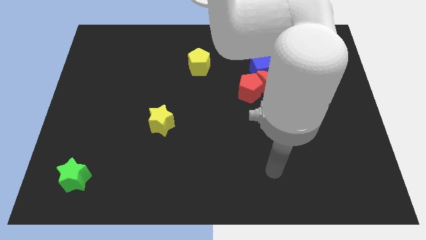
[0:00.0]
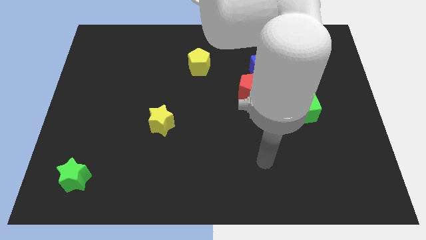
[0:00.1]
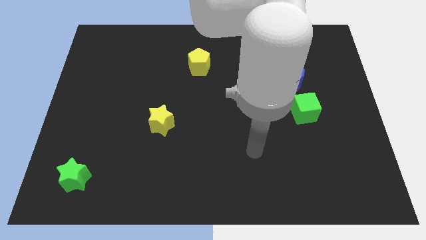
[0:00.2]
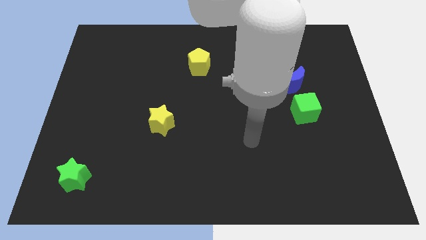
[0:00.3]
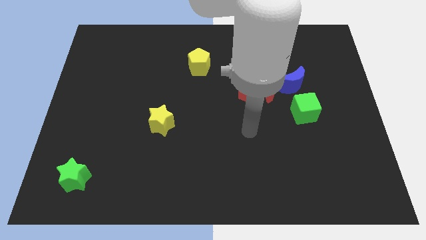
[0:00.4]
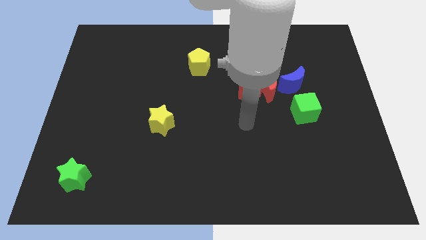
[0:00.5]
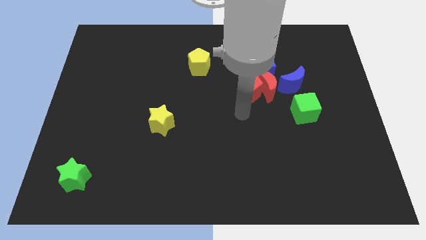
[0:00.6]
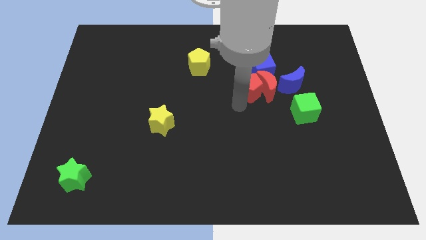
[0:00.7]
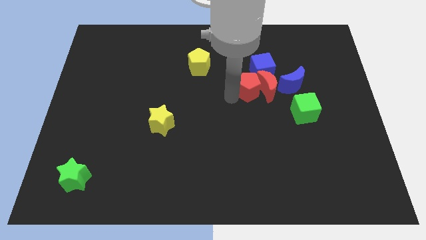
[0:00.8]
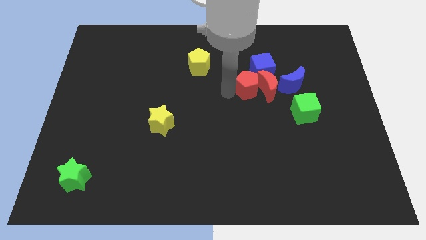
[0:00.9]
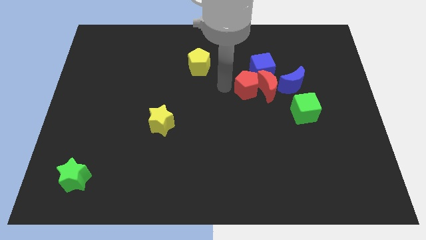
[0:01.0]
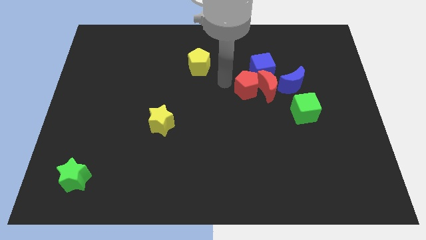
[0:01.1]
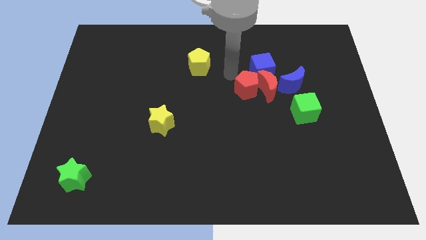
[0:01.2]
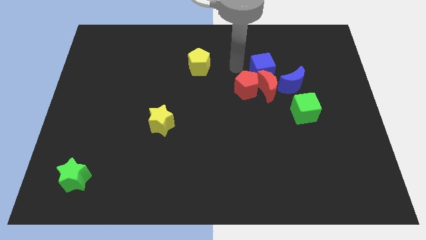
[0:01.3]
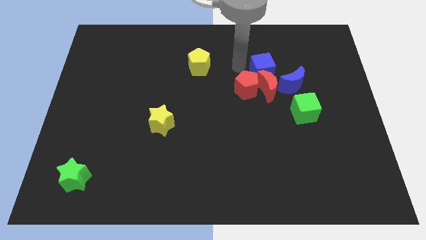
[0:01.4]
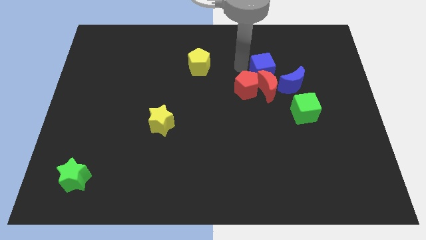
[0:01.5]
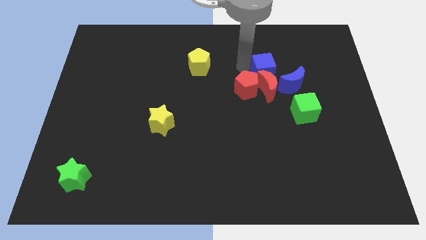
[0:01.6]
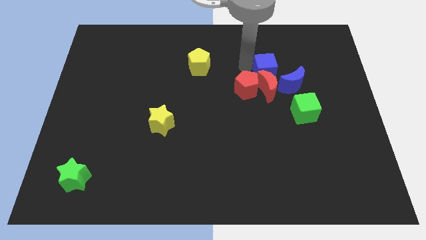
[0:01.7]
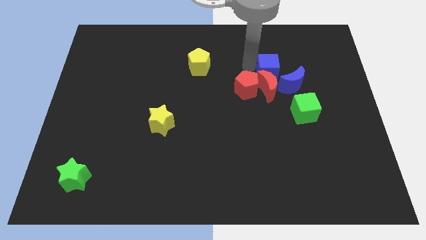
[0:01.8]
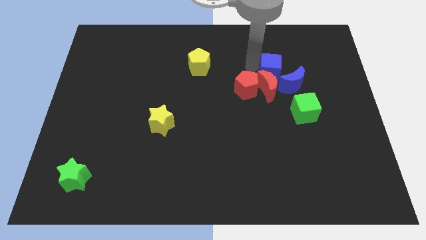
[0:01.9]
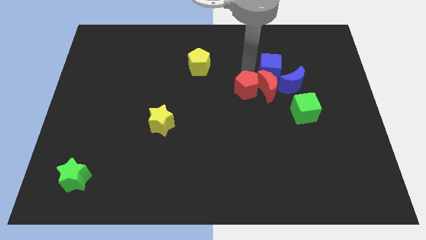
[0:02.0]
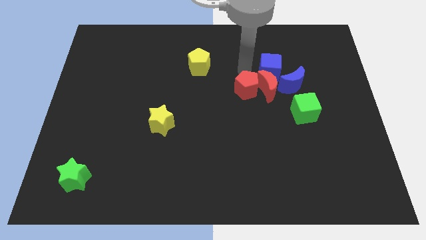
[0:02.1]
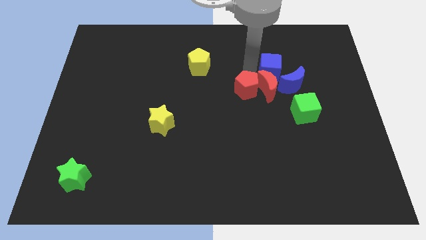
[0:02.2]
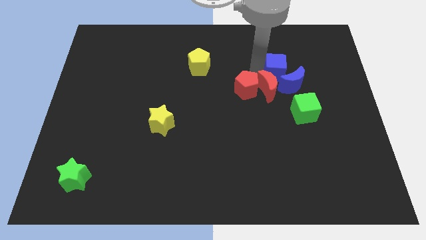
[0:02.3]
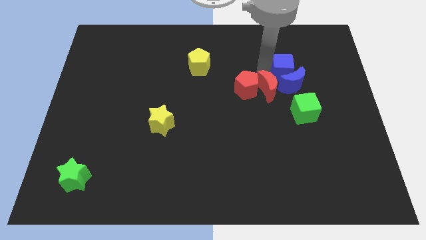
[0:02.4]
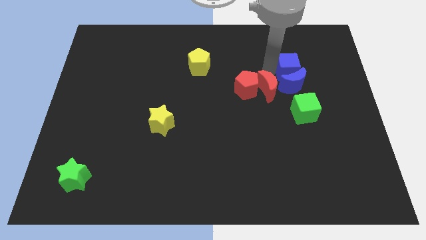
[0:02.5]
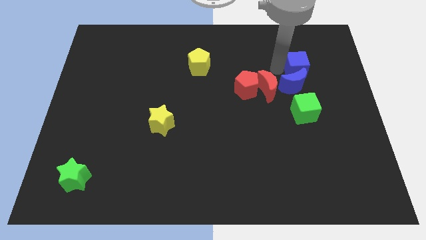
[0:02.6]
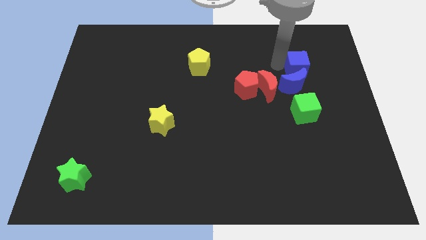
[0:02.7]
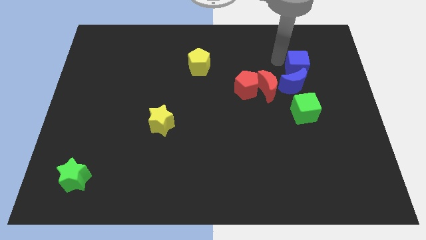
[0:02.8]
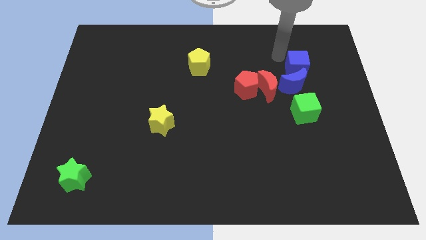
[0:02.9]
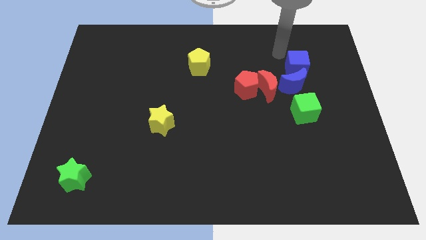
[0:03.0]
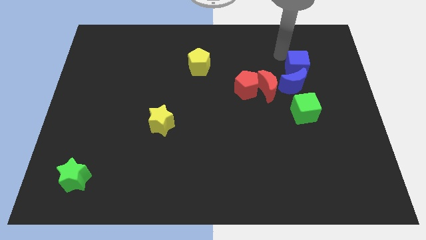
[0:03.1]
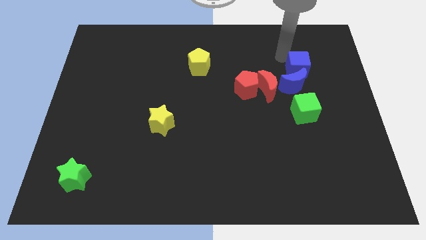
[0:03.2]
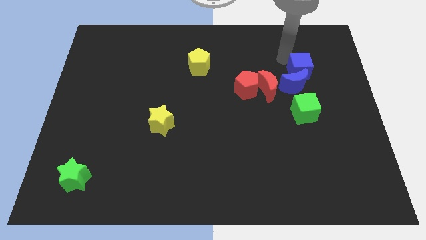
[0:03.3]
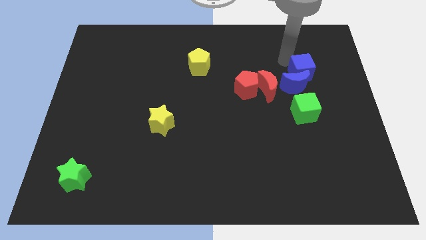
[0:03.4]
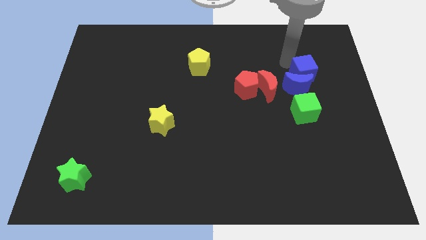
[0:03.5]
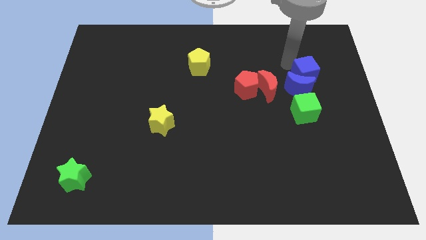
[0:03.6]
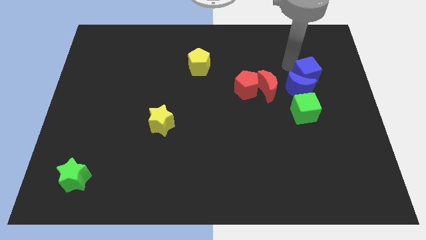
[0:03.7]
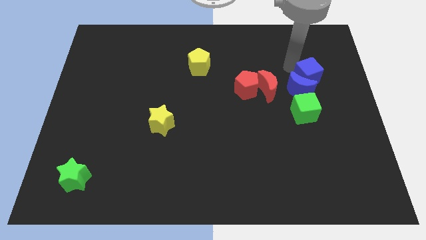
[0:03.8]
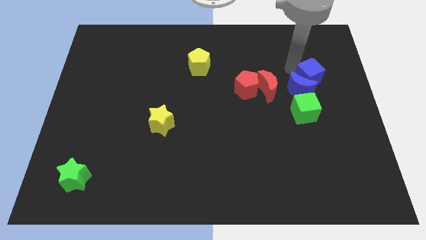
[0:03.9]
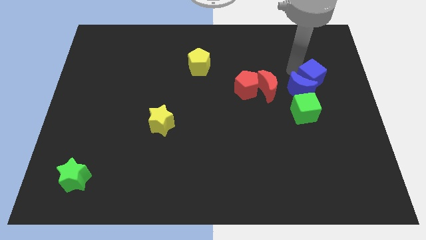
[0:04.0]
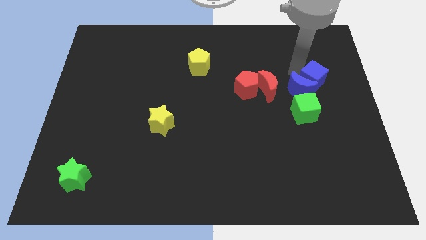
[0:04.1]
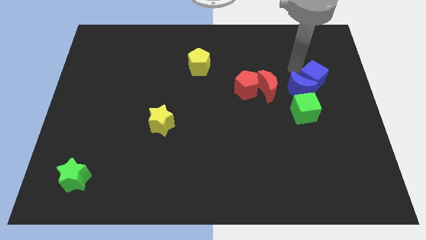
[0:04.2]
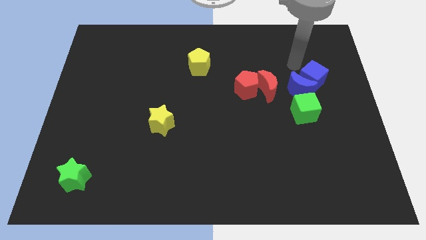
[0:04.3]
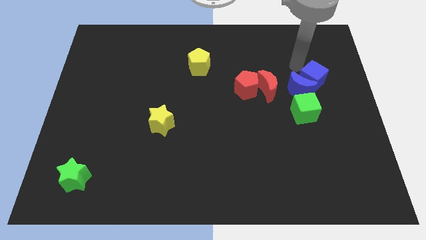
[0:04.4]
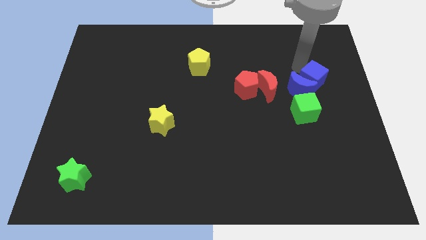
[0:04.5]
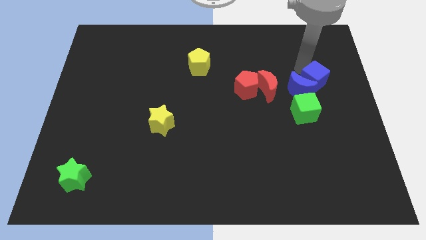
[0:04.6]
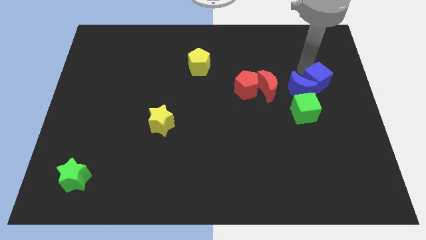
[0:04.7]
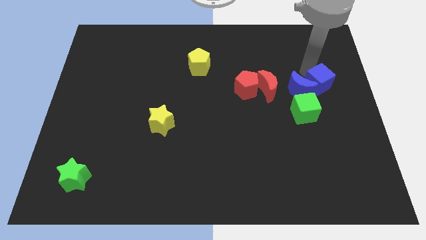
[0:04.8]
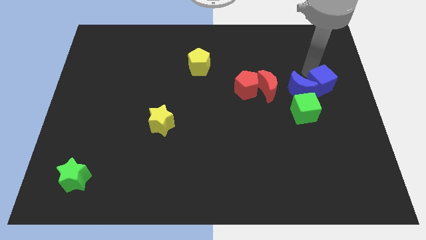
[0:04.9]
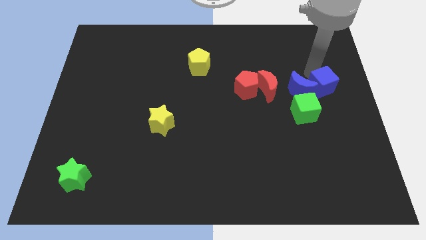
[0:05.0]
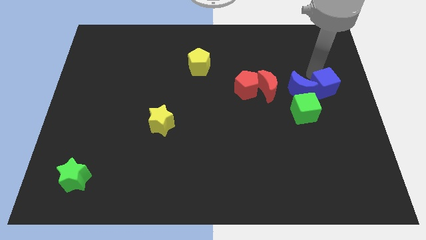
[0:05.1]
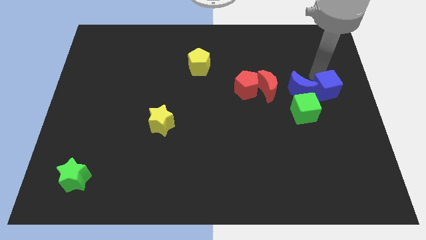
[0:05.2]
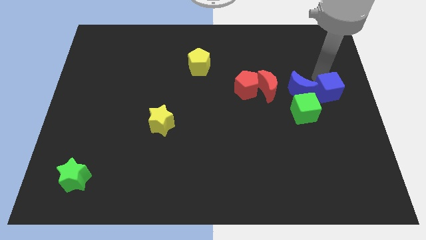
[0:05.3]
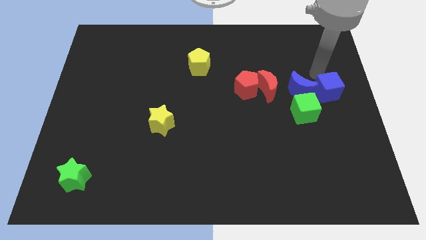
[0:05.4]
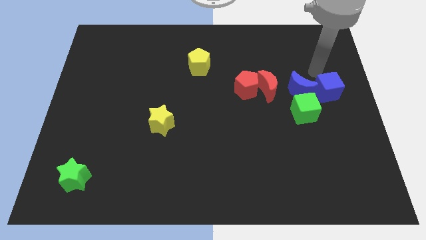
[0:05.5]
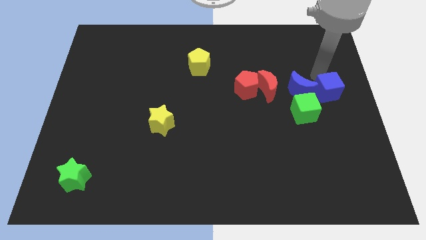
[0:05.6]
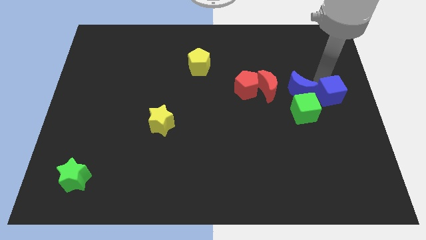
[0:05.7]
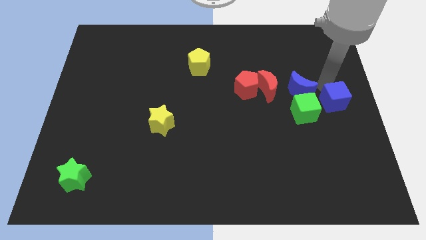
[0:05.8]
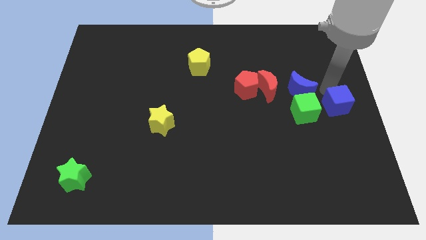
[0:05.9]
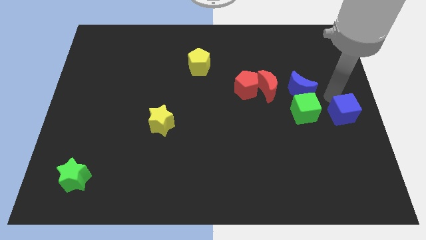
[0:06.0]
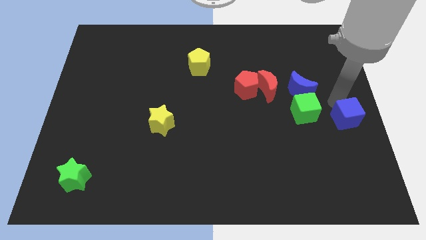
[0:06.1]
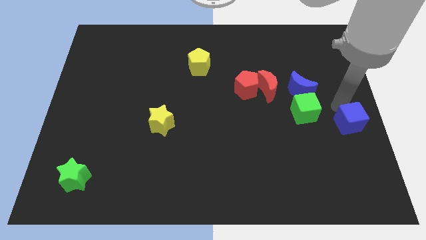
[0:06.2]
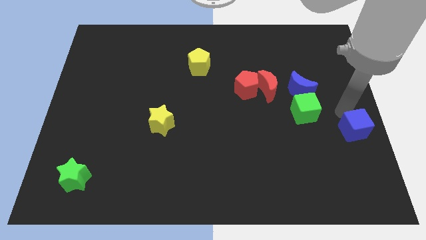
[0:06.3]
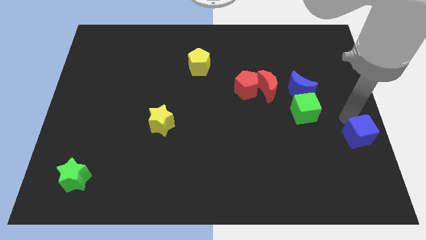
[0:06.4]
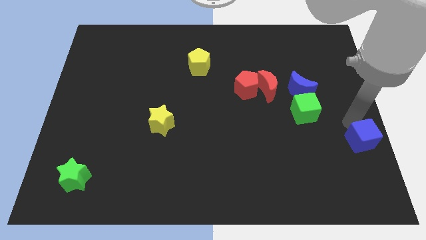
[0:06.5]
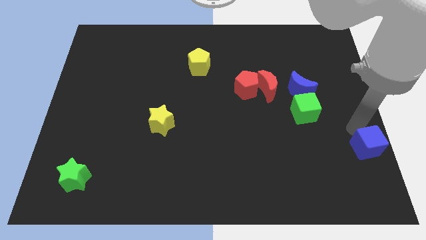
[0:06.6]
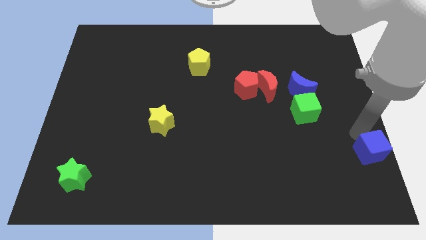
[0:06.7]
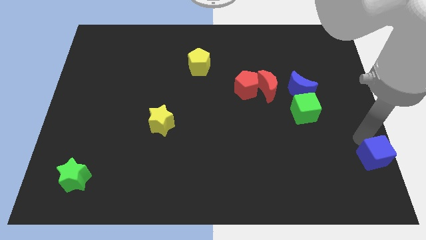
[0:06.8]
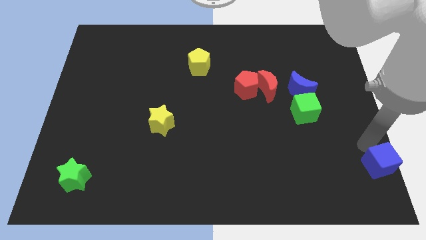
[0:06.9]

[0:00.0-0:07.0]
move the blue cube to the bottom right of the board

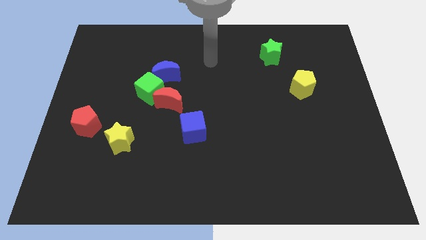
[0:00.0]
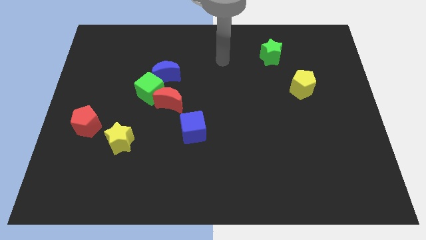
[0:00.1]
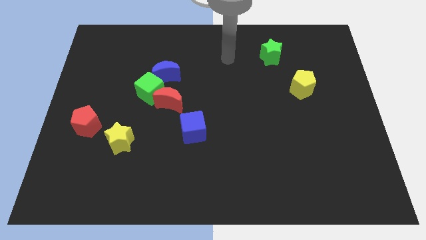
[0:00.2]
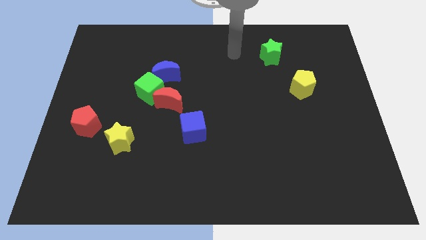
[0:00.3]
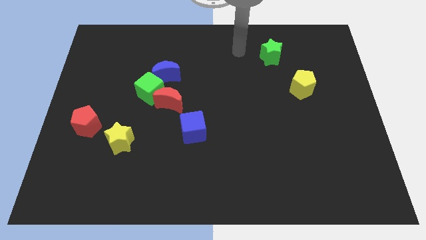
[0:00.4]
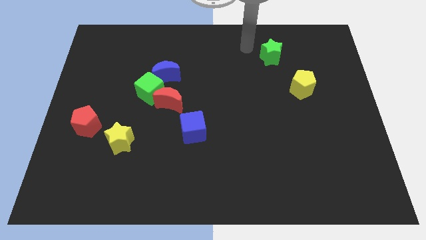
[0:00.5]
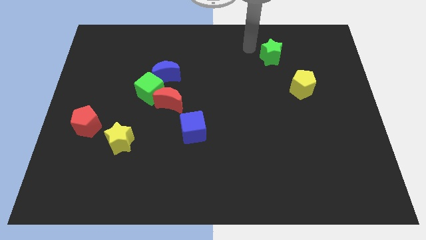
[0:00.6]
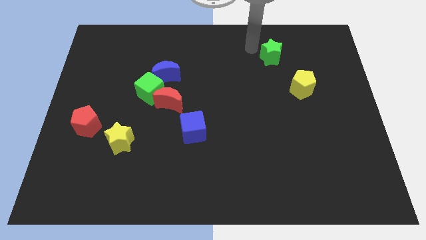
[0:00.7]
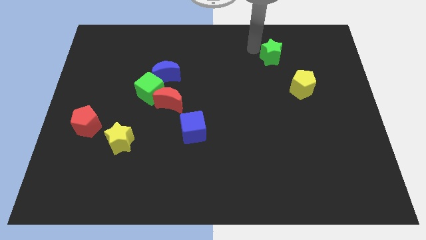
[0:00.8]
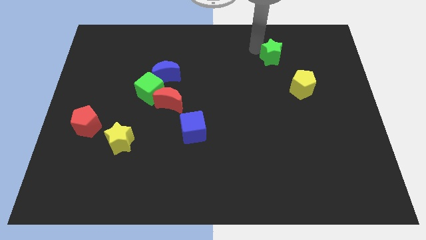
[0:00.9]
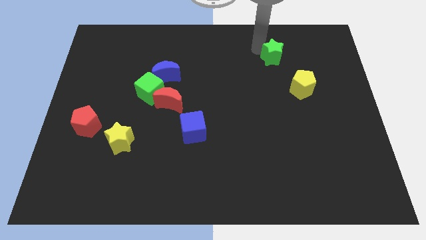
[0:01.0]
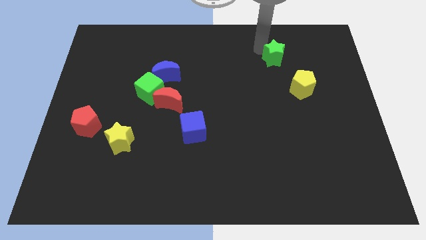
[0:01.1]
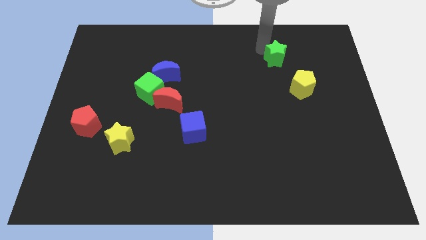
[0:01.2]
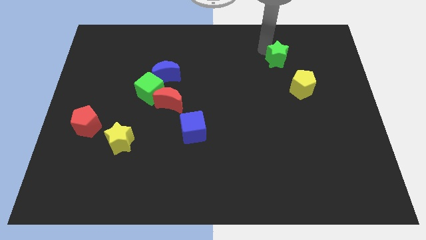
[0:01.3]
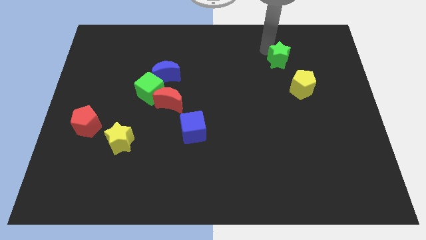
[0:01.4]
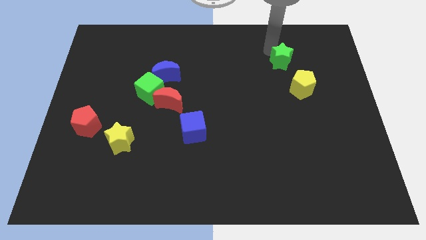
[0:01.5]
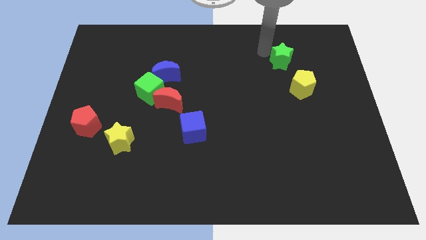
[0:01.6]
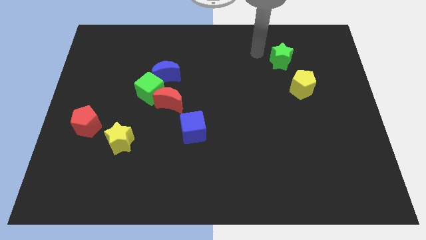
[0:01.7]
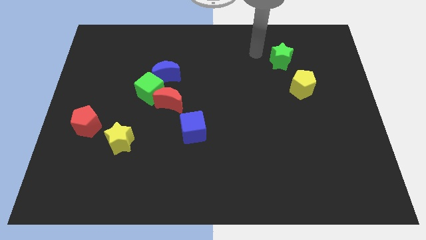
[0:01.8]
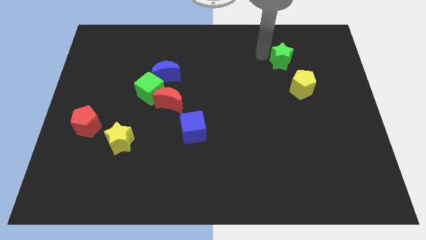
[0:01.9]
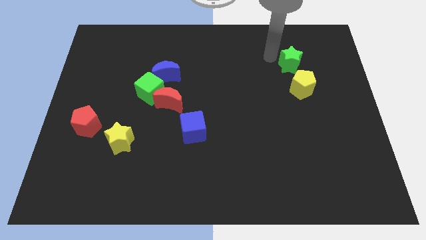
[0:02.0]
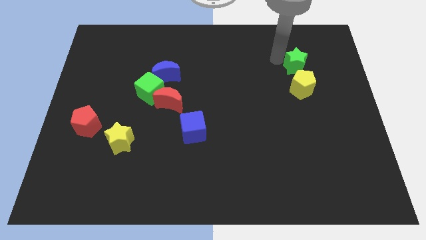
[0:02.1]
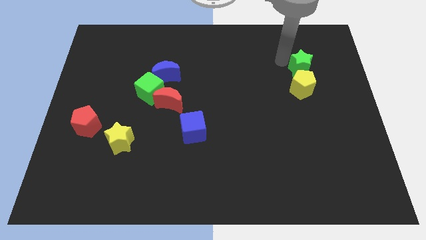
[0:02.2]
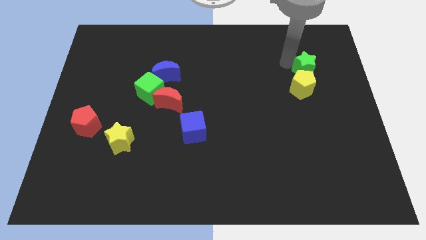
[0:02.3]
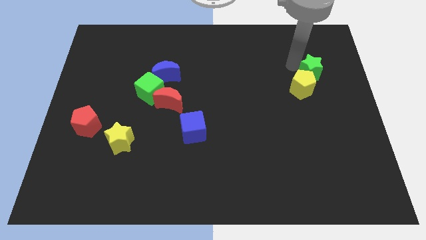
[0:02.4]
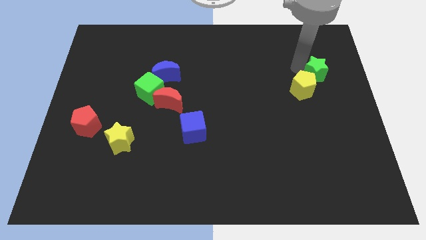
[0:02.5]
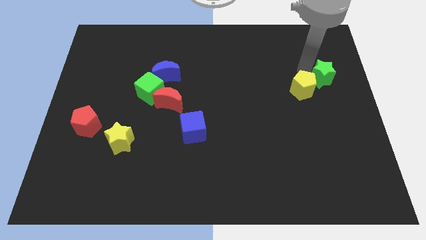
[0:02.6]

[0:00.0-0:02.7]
move the green star to the right side of the board
